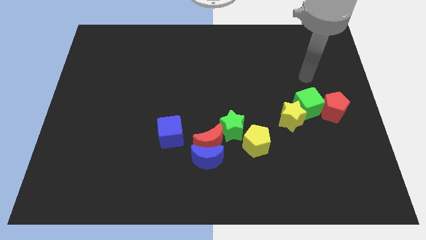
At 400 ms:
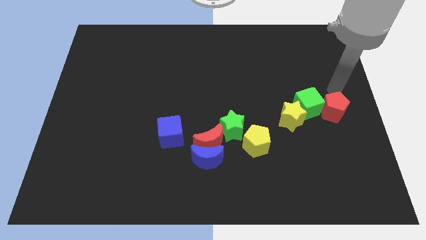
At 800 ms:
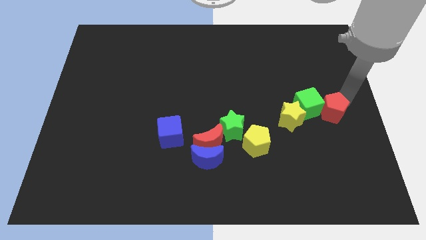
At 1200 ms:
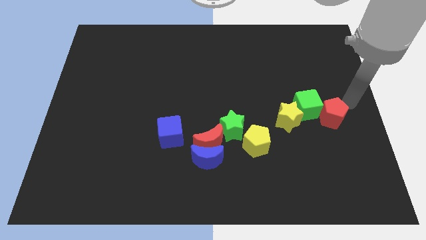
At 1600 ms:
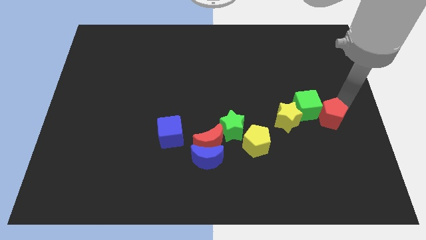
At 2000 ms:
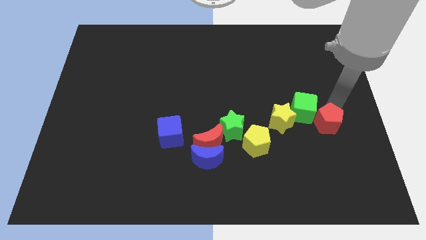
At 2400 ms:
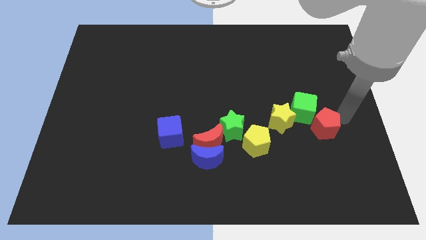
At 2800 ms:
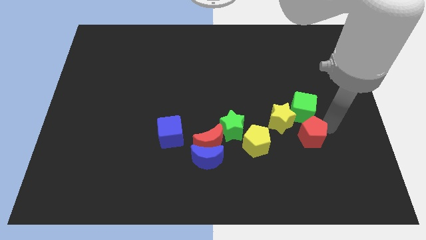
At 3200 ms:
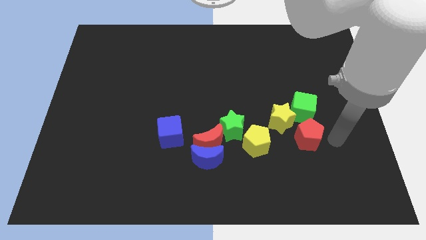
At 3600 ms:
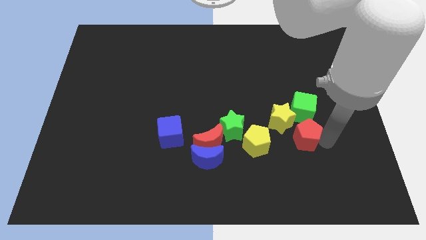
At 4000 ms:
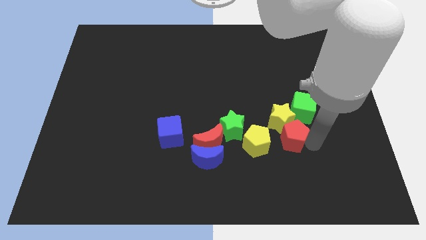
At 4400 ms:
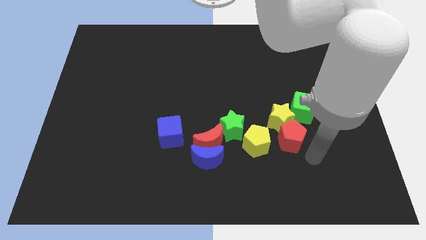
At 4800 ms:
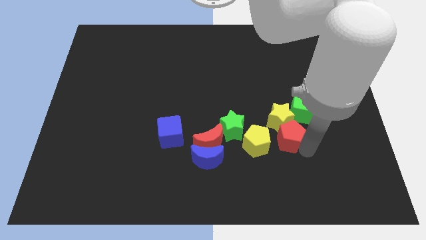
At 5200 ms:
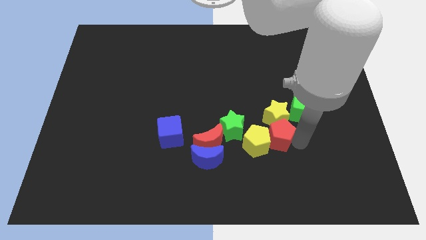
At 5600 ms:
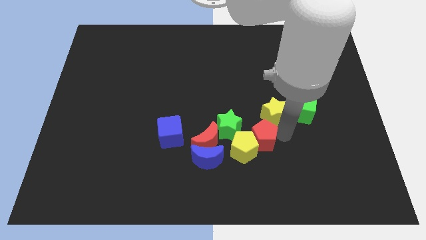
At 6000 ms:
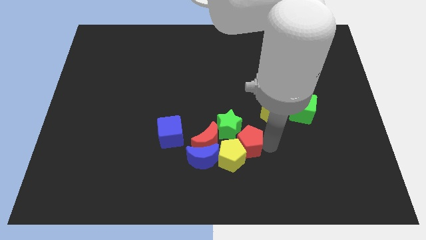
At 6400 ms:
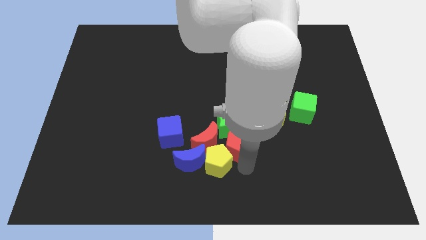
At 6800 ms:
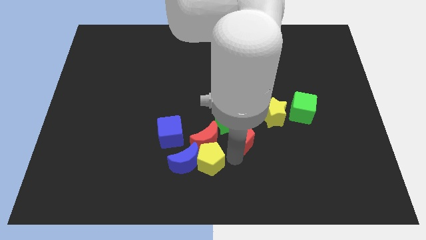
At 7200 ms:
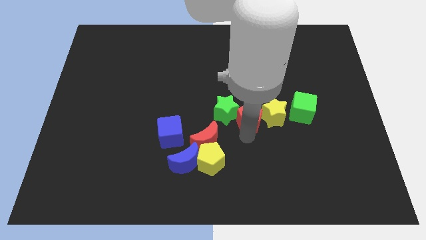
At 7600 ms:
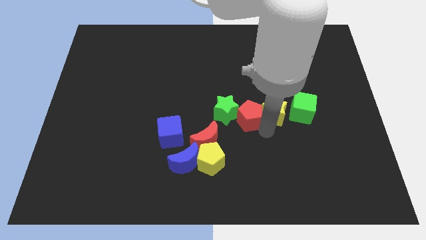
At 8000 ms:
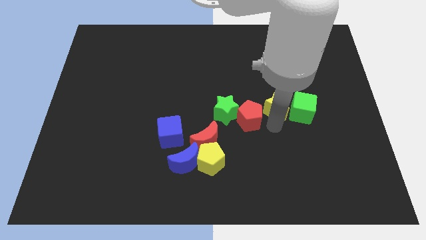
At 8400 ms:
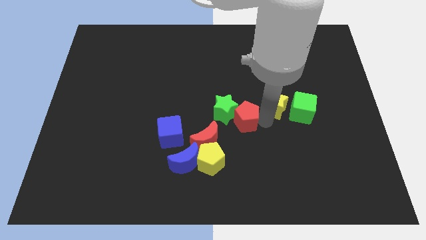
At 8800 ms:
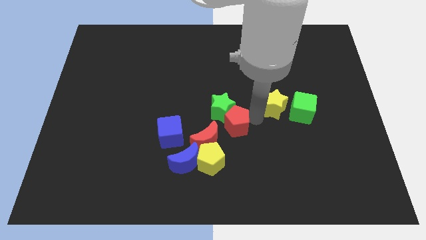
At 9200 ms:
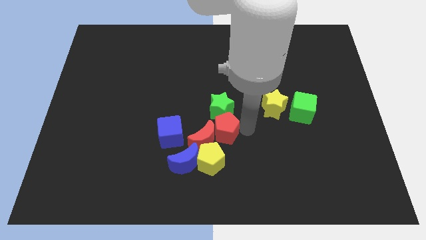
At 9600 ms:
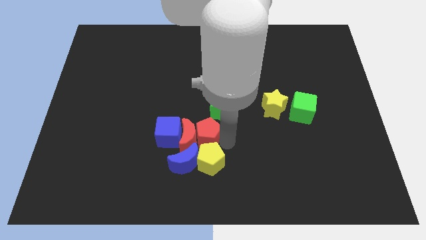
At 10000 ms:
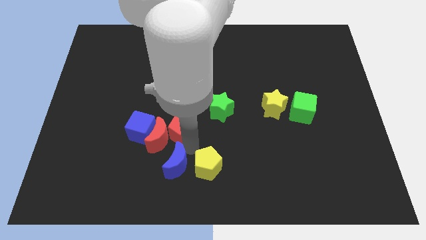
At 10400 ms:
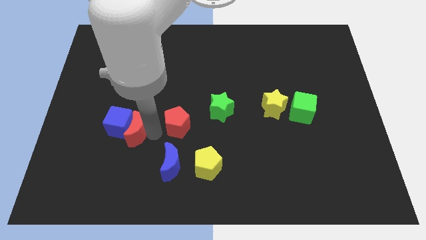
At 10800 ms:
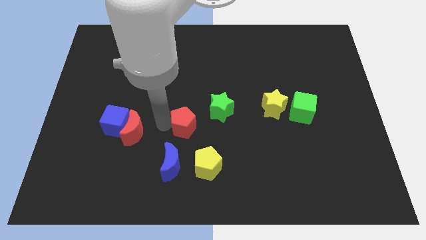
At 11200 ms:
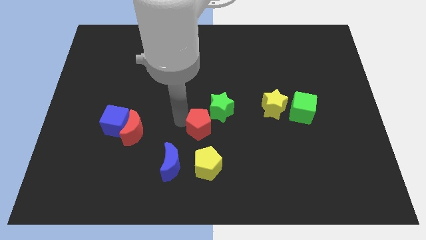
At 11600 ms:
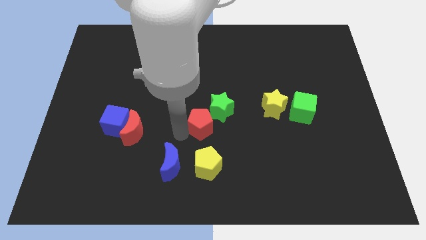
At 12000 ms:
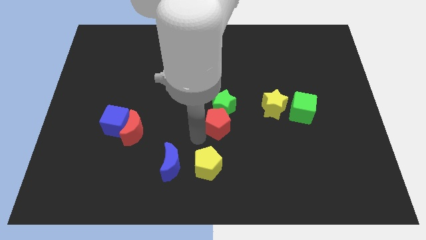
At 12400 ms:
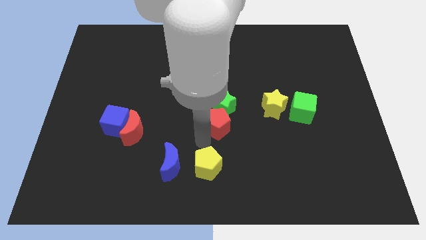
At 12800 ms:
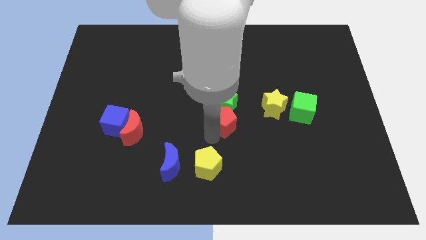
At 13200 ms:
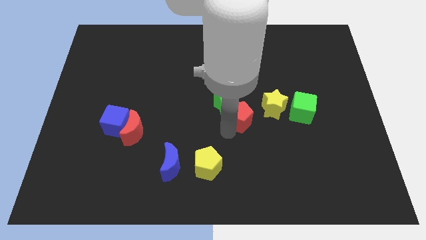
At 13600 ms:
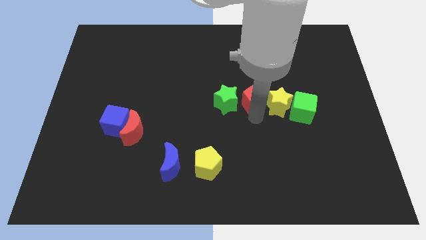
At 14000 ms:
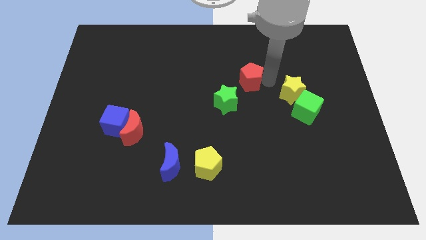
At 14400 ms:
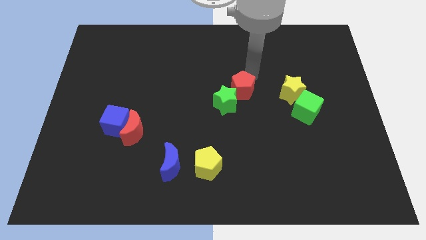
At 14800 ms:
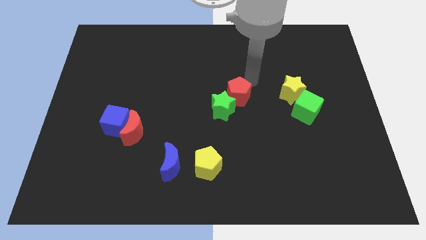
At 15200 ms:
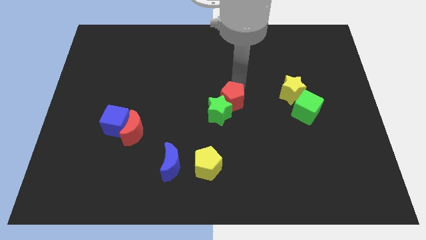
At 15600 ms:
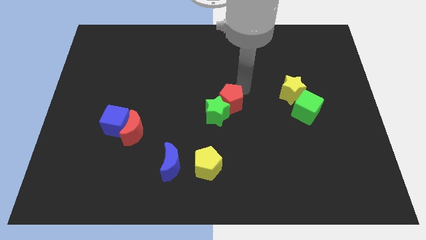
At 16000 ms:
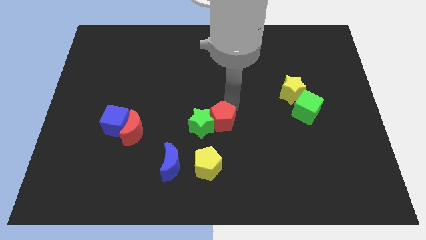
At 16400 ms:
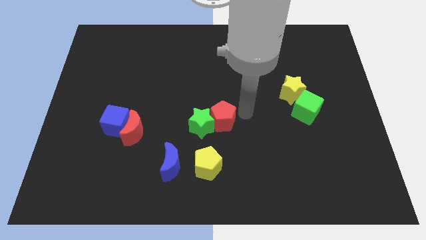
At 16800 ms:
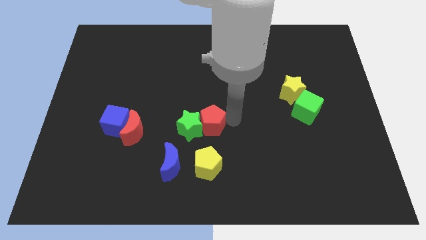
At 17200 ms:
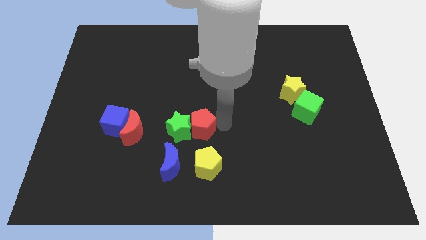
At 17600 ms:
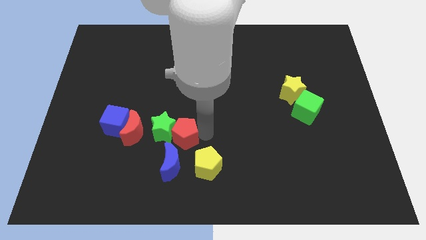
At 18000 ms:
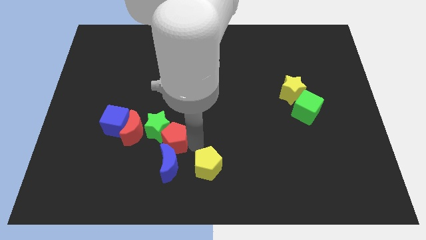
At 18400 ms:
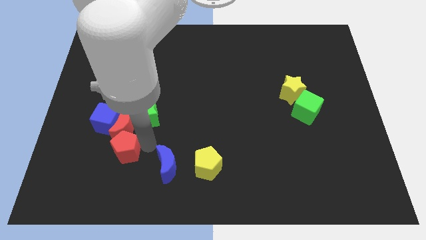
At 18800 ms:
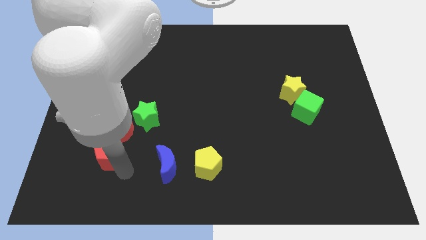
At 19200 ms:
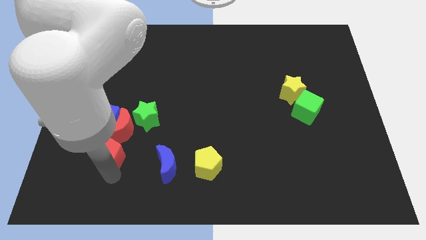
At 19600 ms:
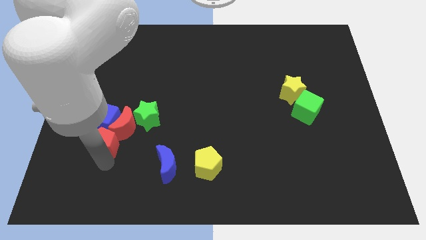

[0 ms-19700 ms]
push the red pentagon to the blue cube

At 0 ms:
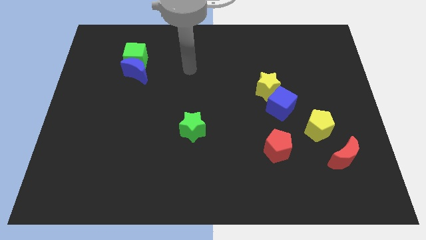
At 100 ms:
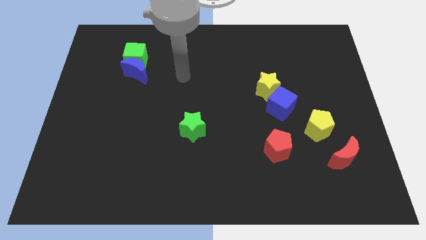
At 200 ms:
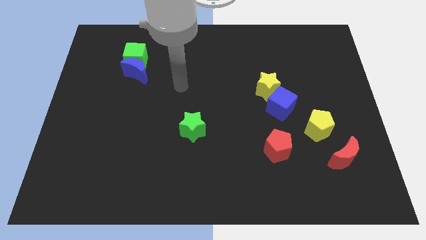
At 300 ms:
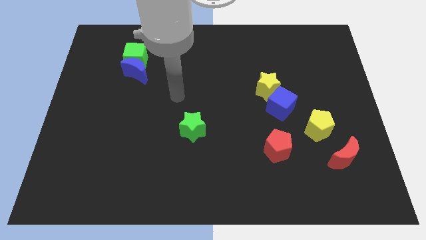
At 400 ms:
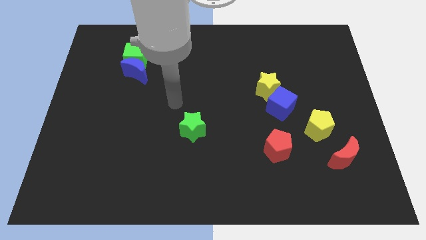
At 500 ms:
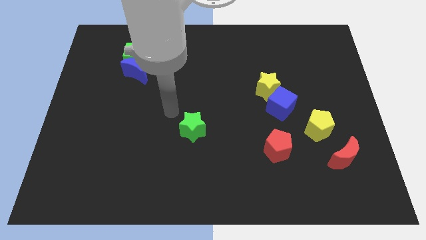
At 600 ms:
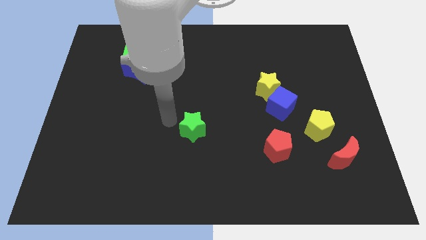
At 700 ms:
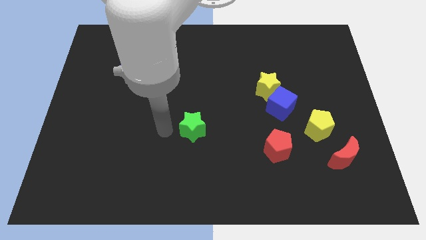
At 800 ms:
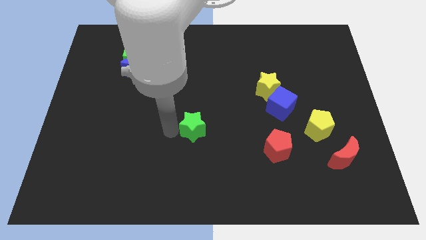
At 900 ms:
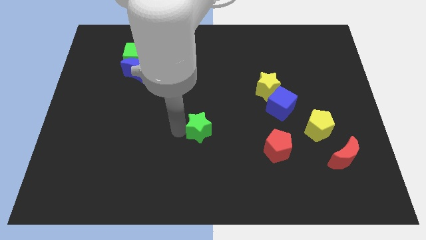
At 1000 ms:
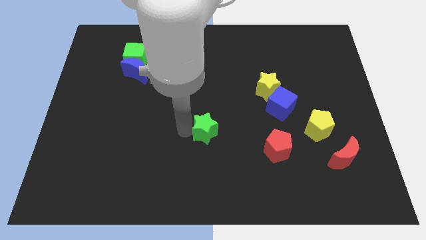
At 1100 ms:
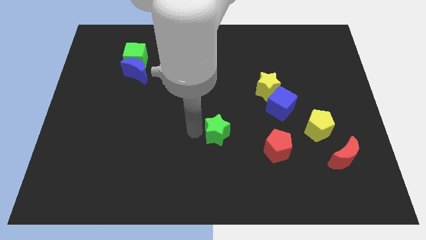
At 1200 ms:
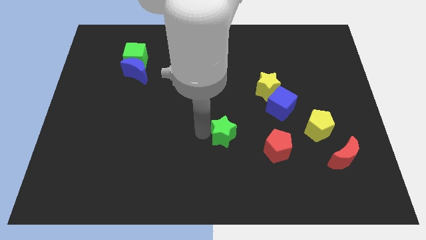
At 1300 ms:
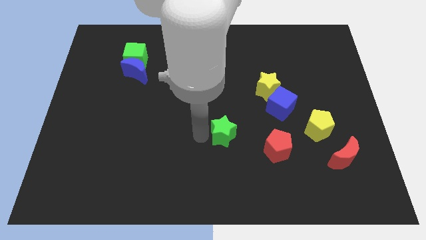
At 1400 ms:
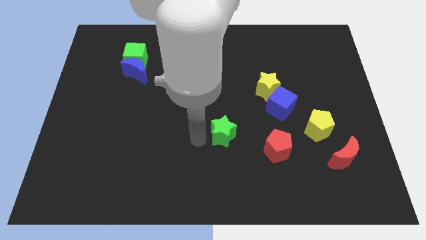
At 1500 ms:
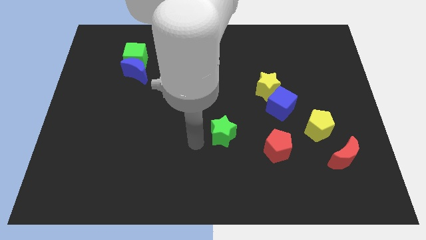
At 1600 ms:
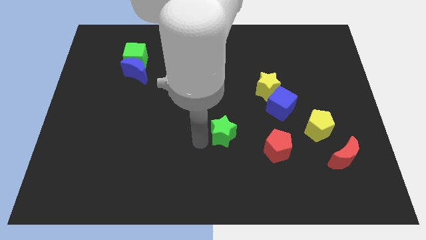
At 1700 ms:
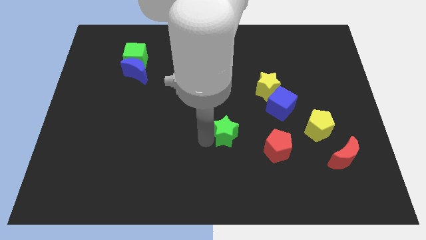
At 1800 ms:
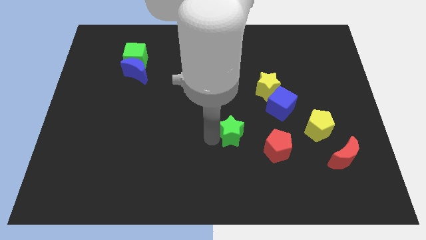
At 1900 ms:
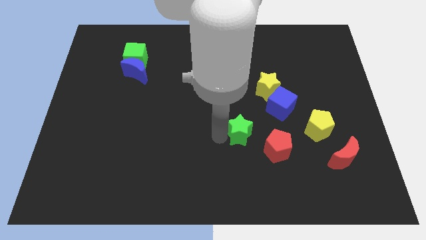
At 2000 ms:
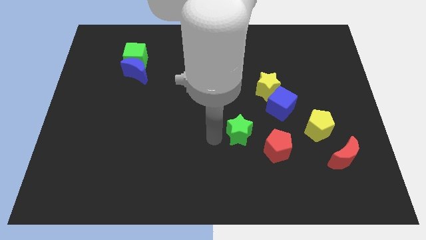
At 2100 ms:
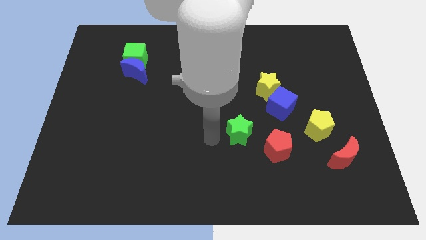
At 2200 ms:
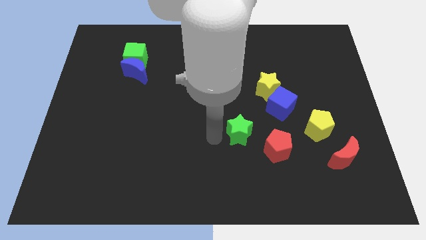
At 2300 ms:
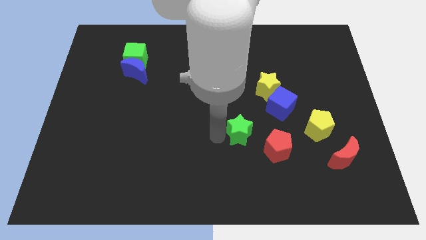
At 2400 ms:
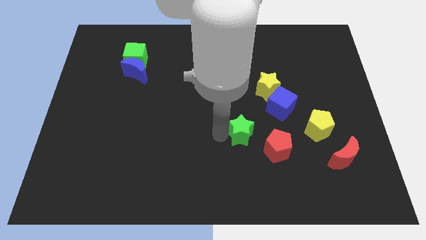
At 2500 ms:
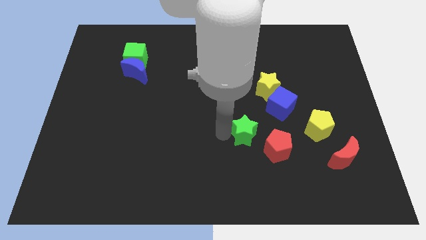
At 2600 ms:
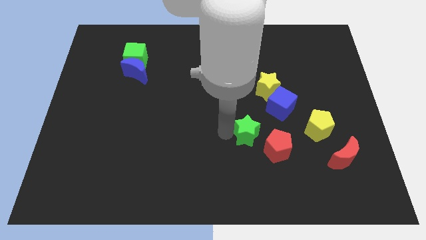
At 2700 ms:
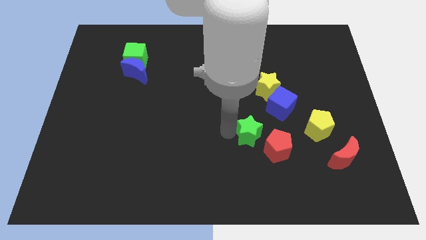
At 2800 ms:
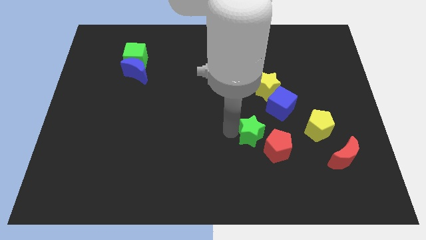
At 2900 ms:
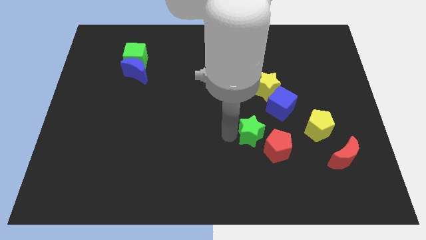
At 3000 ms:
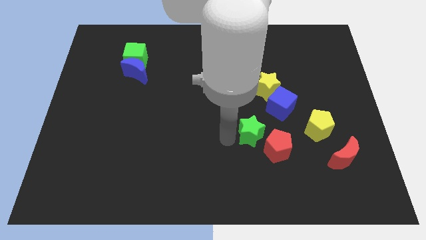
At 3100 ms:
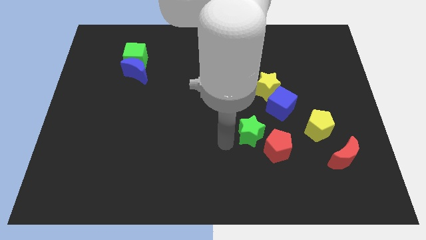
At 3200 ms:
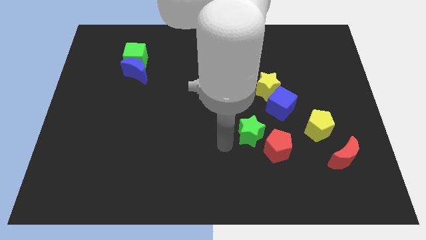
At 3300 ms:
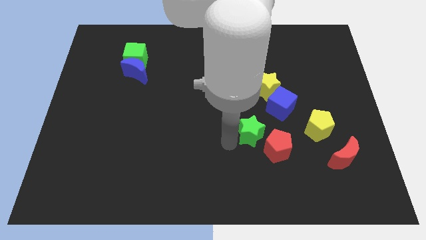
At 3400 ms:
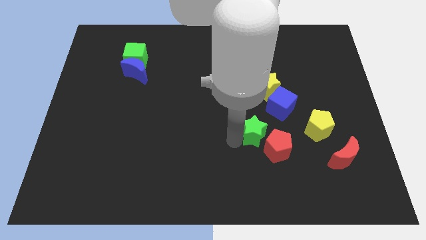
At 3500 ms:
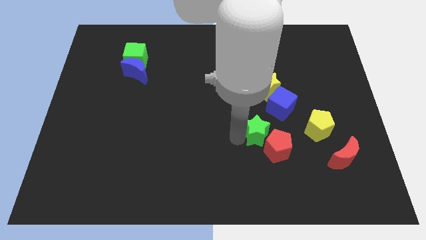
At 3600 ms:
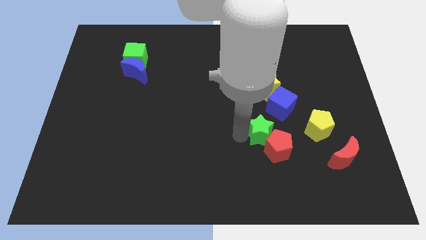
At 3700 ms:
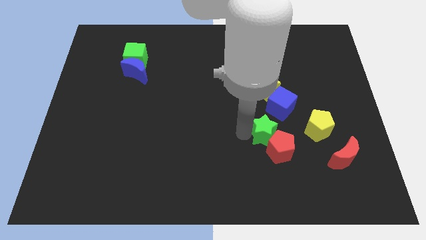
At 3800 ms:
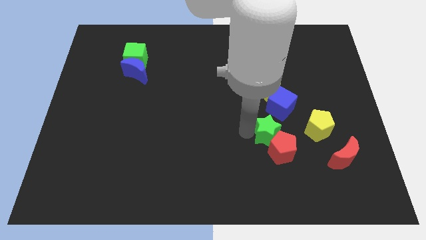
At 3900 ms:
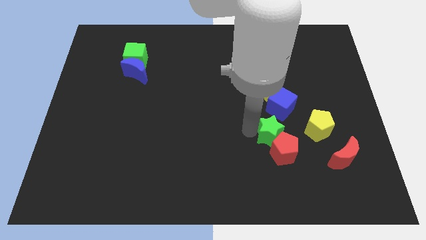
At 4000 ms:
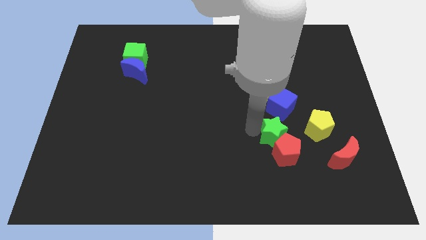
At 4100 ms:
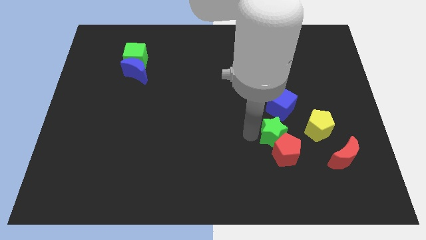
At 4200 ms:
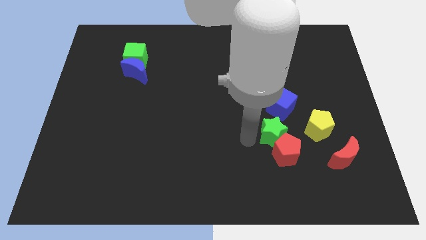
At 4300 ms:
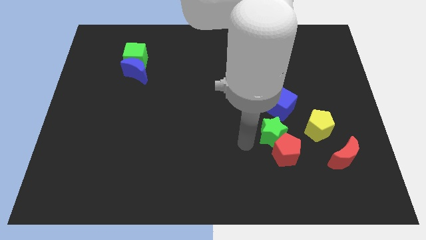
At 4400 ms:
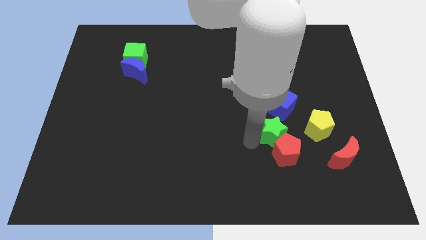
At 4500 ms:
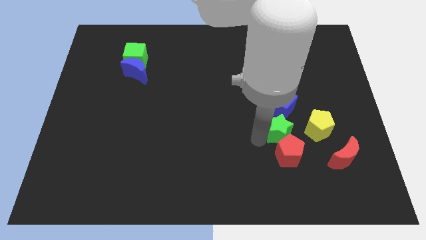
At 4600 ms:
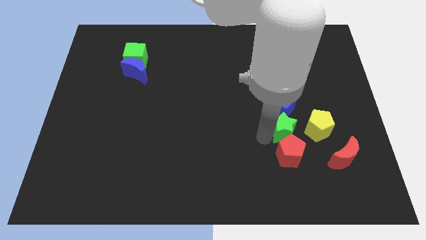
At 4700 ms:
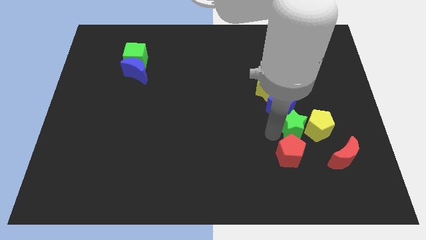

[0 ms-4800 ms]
push the green star next to the yellow pentagon
